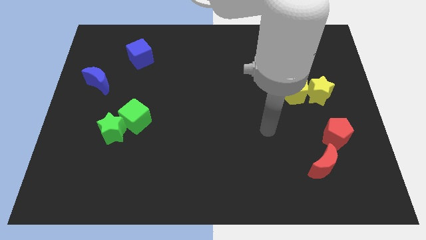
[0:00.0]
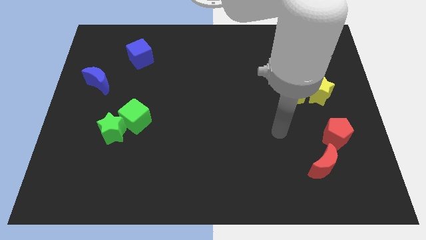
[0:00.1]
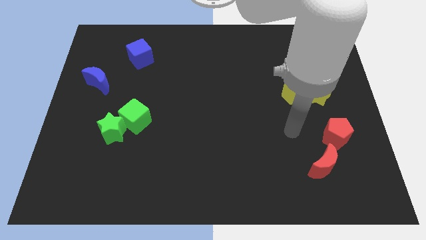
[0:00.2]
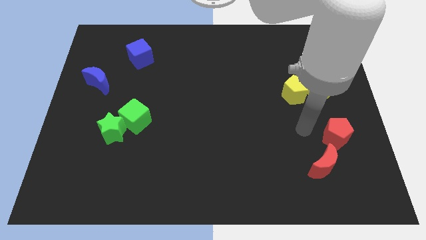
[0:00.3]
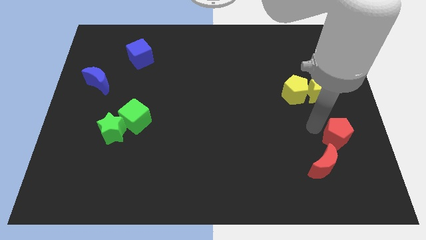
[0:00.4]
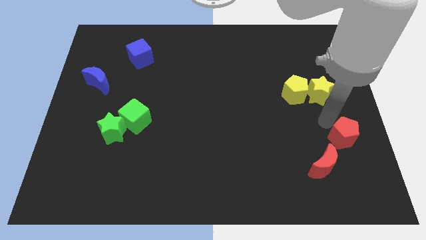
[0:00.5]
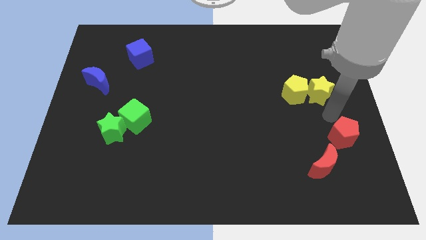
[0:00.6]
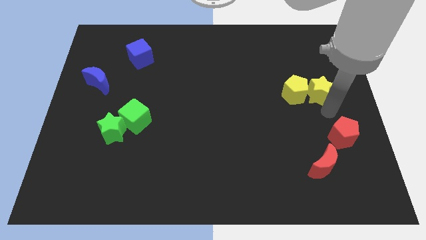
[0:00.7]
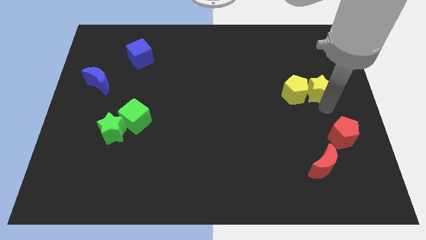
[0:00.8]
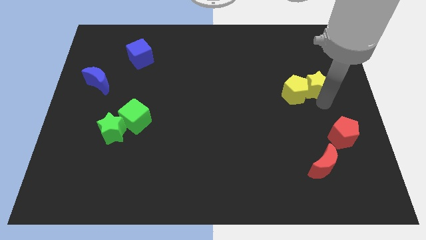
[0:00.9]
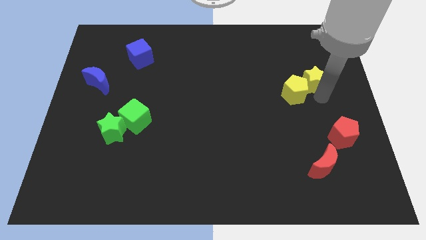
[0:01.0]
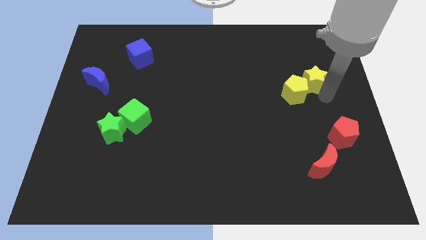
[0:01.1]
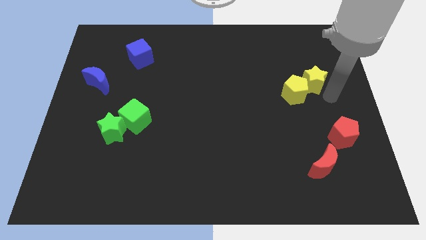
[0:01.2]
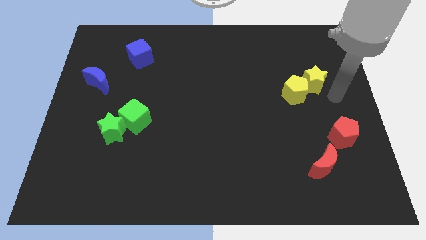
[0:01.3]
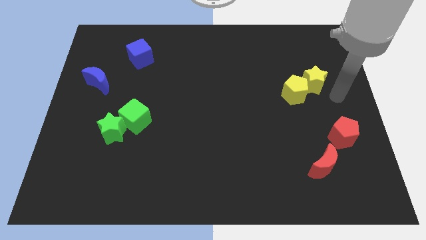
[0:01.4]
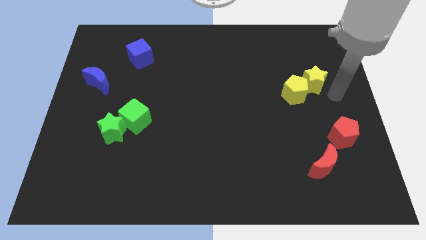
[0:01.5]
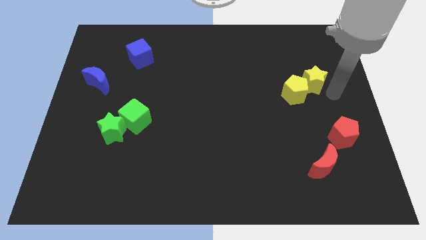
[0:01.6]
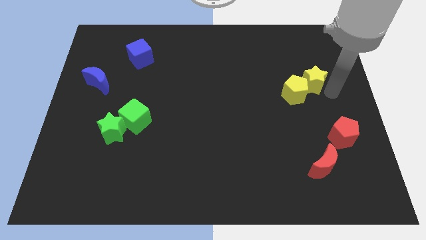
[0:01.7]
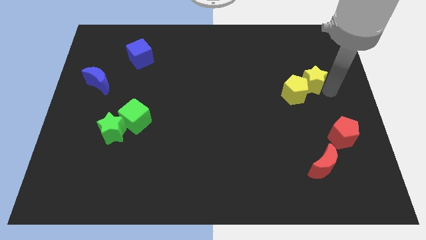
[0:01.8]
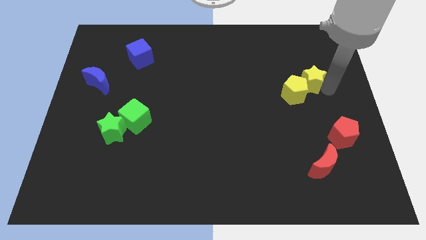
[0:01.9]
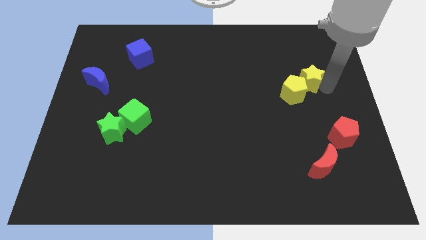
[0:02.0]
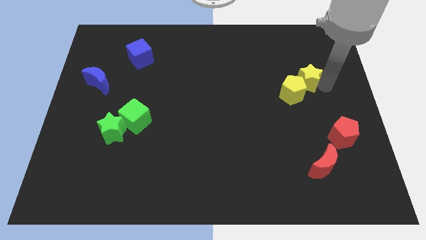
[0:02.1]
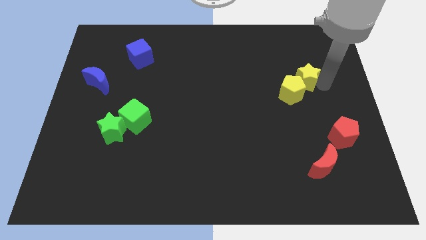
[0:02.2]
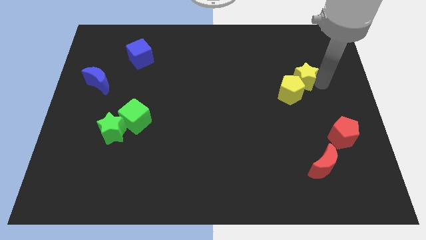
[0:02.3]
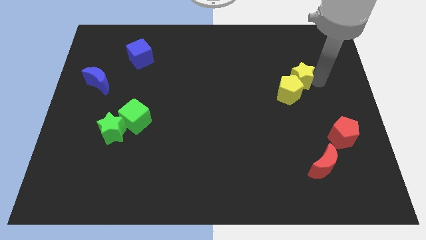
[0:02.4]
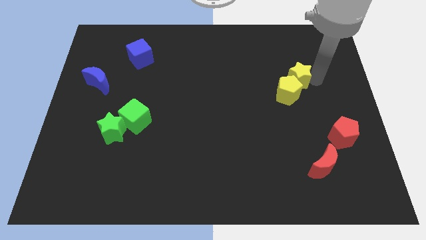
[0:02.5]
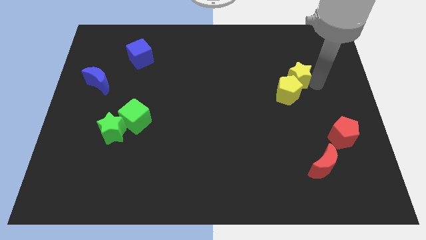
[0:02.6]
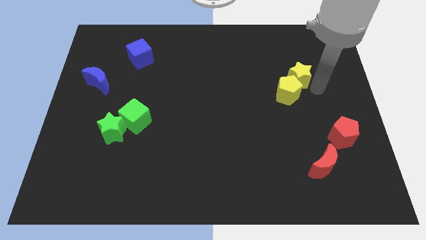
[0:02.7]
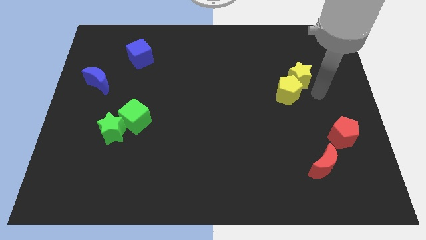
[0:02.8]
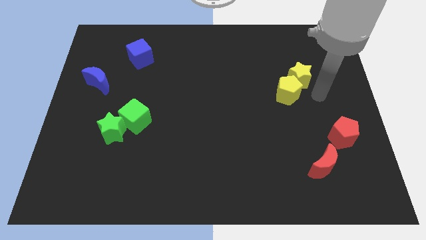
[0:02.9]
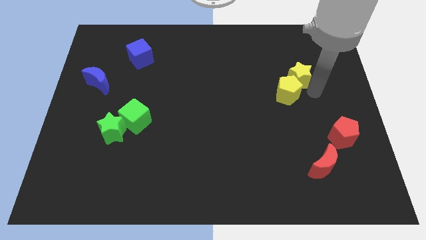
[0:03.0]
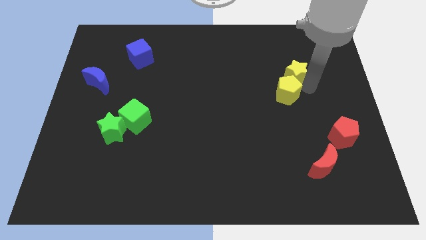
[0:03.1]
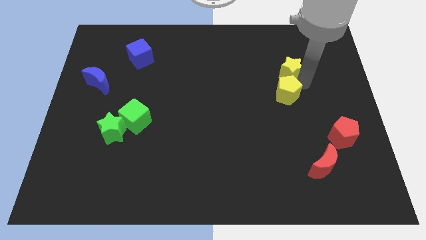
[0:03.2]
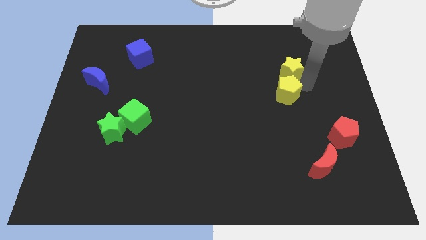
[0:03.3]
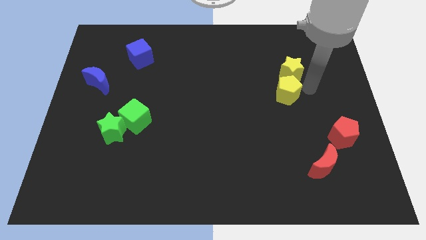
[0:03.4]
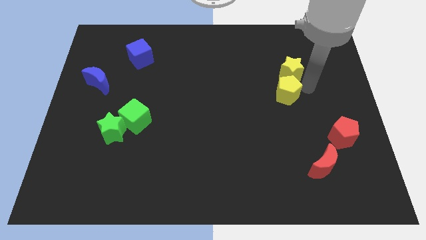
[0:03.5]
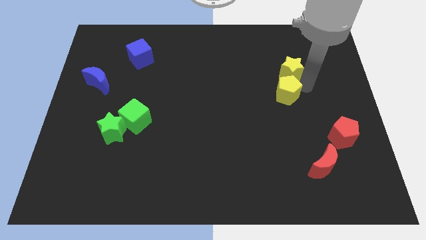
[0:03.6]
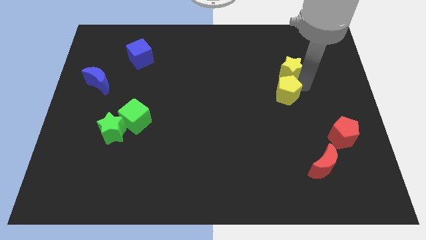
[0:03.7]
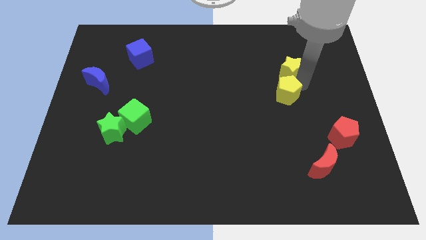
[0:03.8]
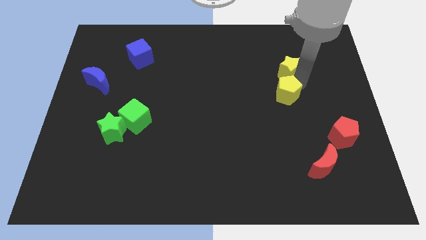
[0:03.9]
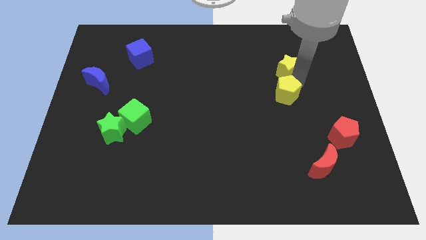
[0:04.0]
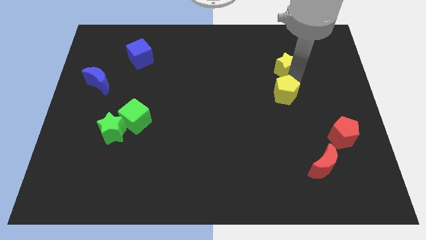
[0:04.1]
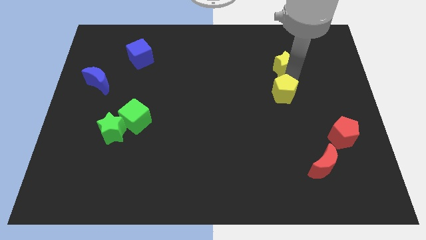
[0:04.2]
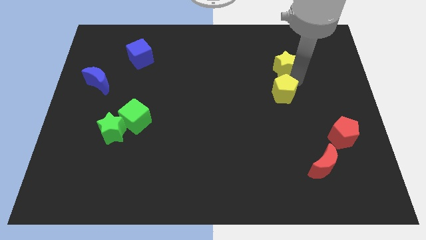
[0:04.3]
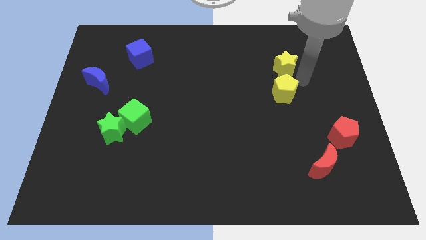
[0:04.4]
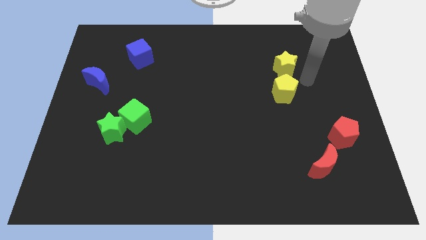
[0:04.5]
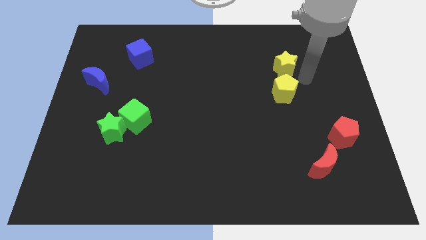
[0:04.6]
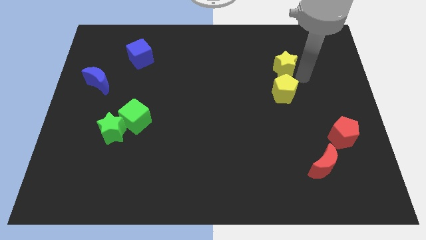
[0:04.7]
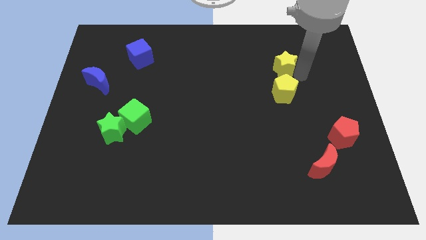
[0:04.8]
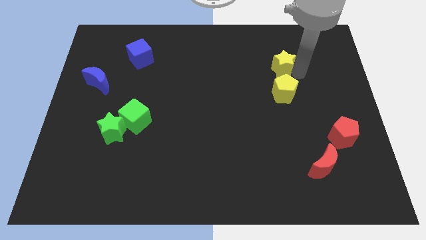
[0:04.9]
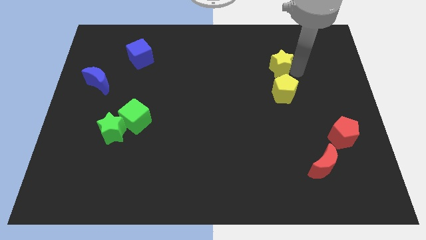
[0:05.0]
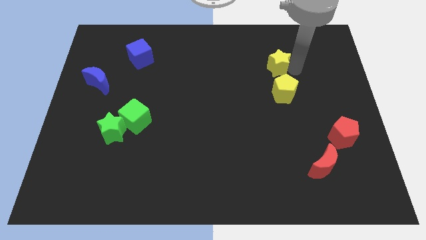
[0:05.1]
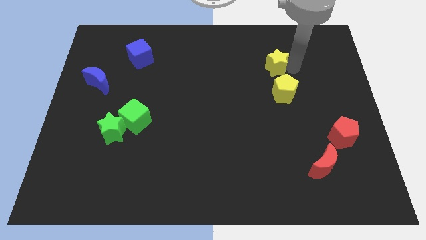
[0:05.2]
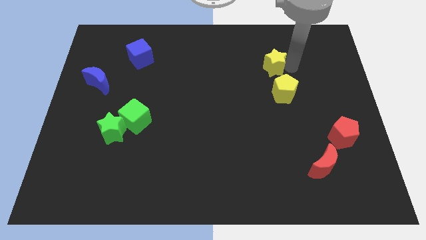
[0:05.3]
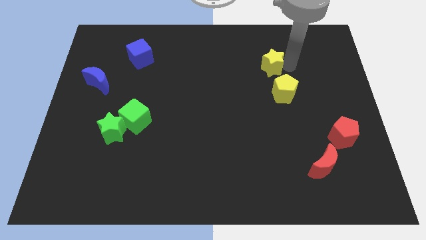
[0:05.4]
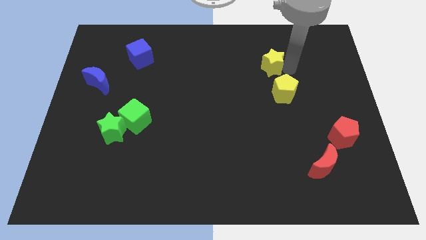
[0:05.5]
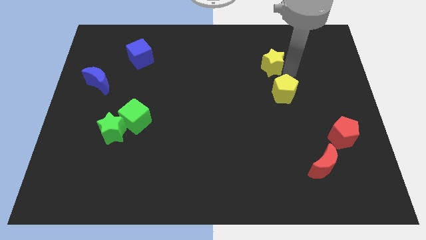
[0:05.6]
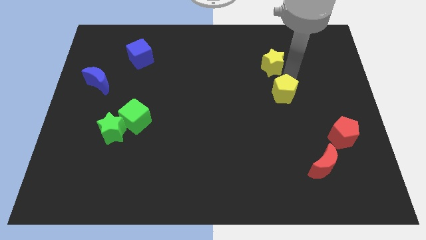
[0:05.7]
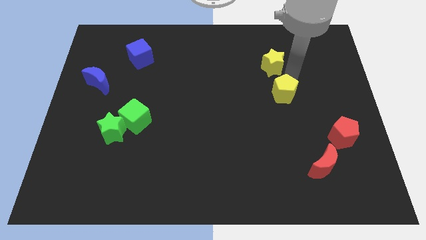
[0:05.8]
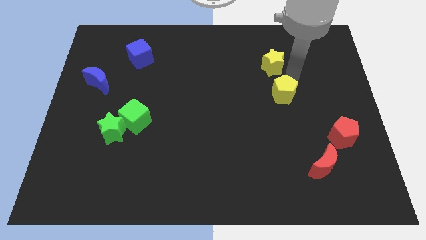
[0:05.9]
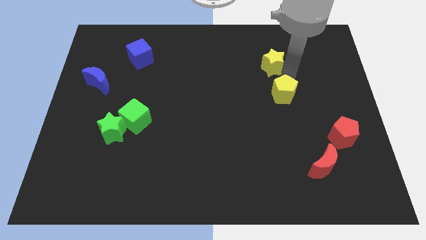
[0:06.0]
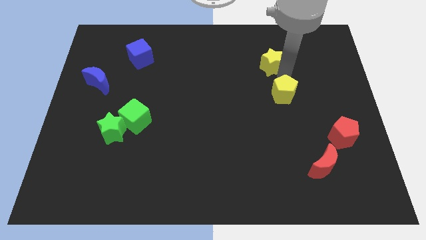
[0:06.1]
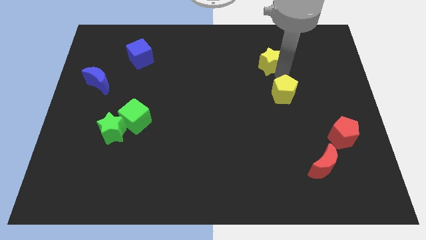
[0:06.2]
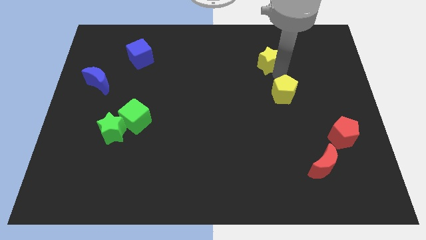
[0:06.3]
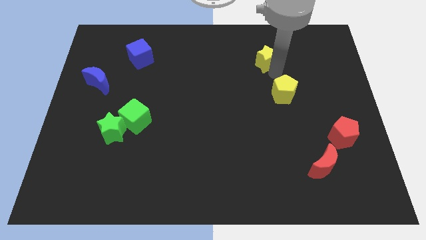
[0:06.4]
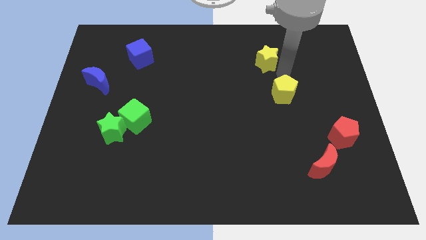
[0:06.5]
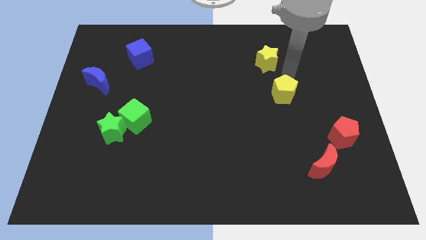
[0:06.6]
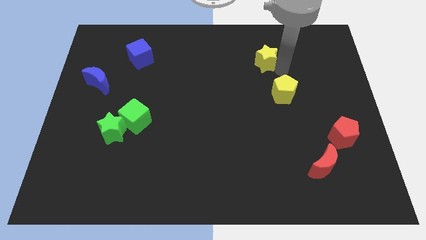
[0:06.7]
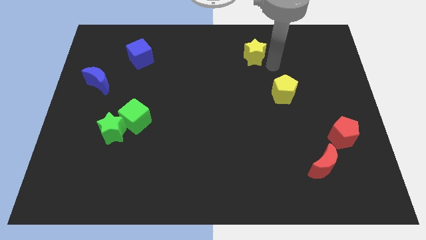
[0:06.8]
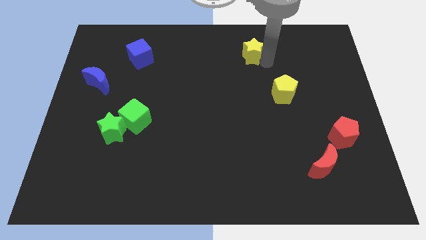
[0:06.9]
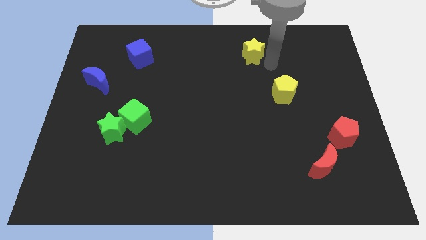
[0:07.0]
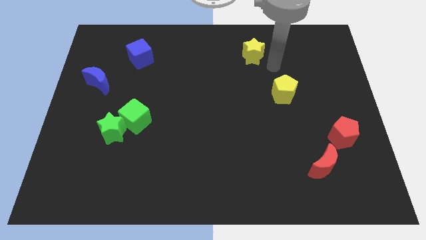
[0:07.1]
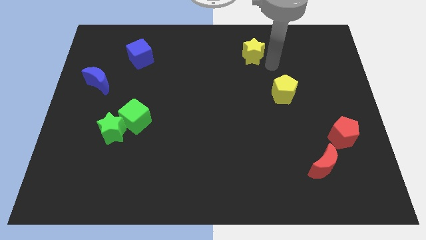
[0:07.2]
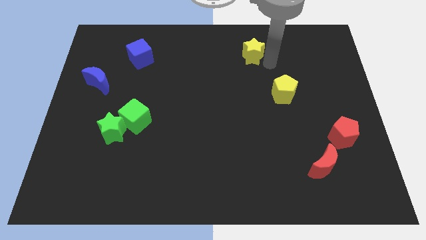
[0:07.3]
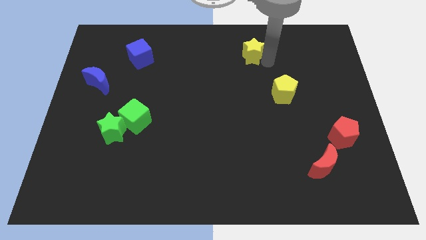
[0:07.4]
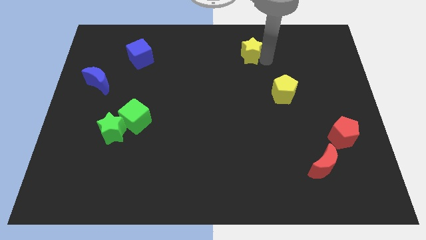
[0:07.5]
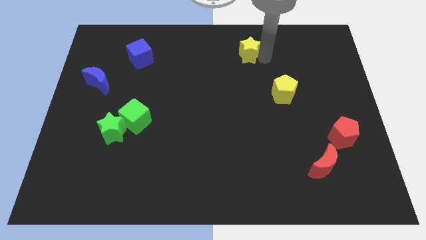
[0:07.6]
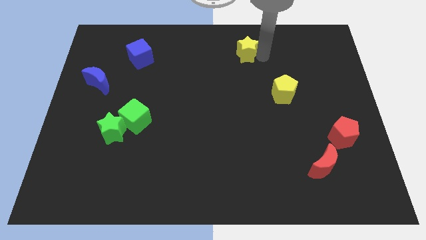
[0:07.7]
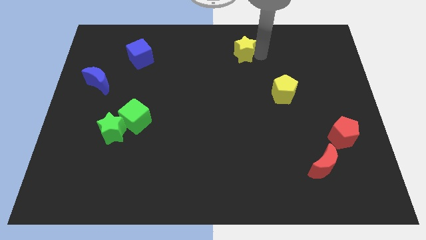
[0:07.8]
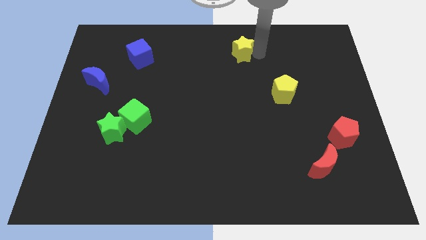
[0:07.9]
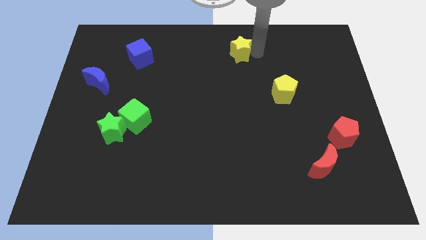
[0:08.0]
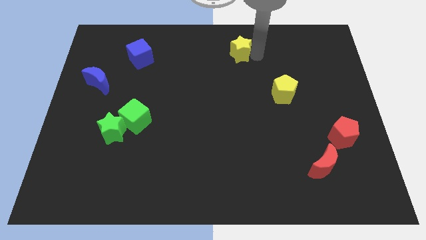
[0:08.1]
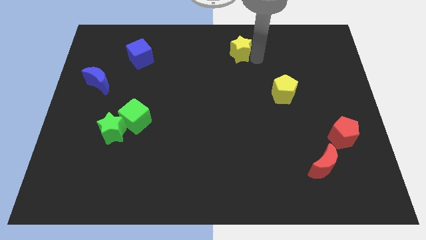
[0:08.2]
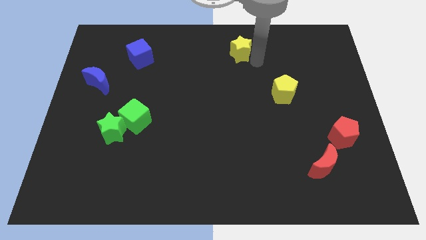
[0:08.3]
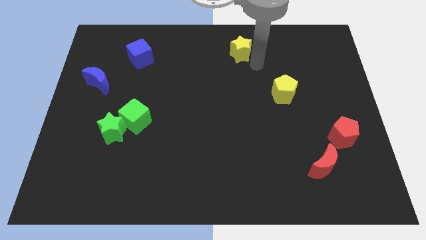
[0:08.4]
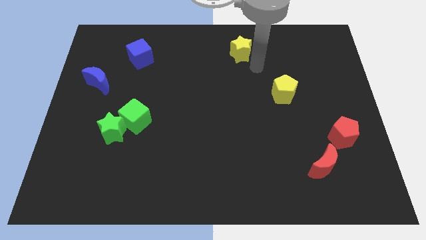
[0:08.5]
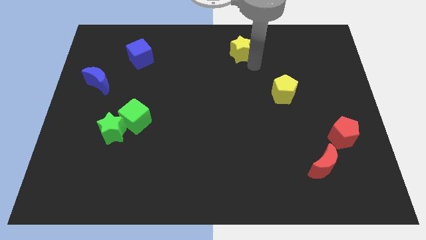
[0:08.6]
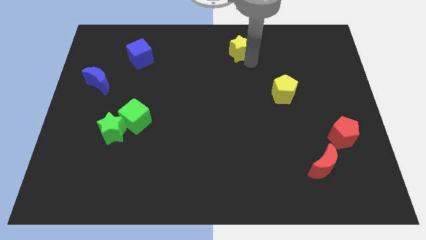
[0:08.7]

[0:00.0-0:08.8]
slide the yellow star to the top side
